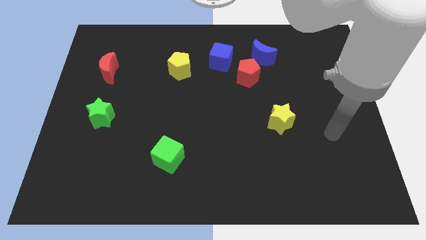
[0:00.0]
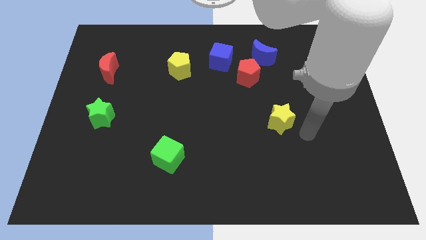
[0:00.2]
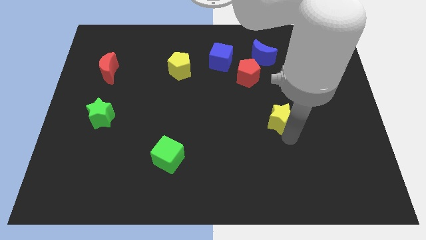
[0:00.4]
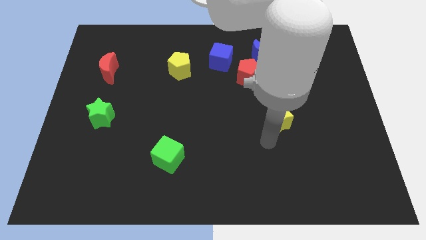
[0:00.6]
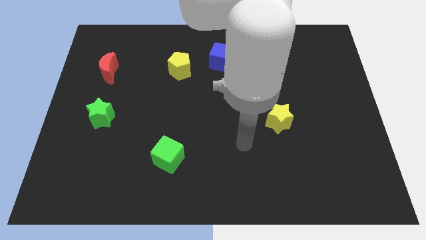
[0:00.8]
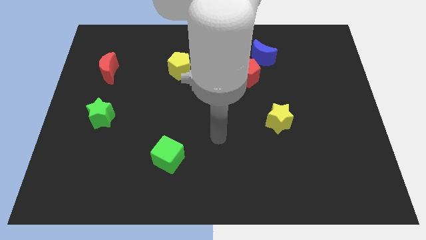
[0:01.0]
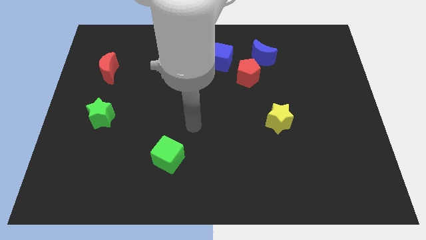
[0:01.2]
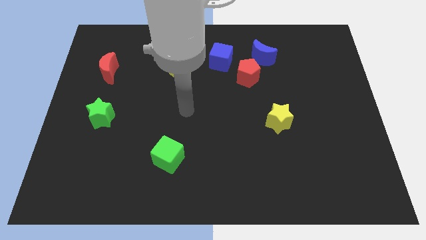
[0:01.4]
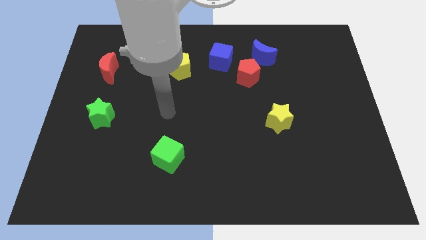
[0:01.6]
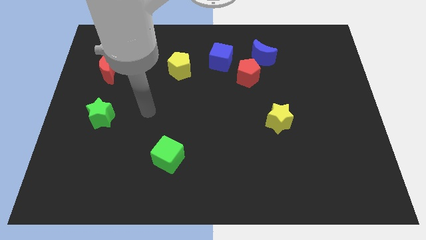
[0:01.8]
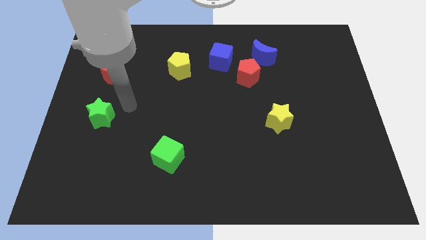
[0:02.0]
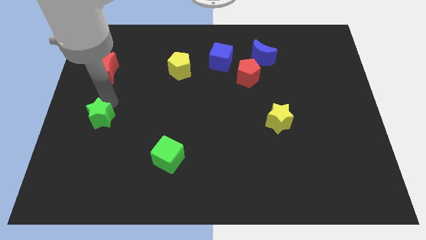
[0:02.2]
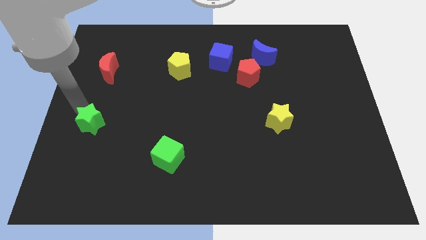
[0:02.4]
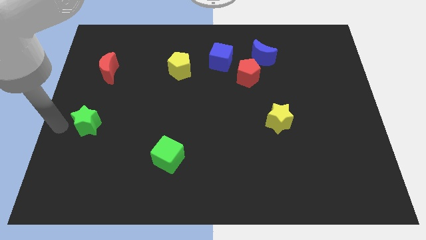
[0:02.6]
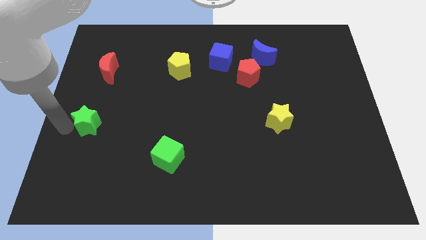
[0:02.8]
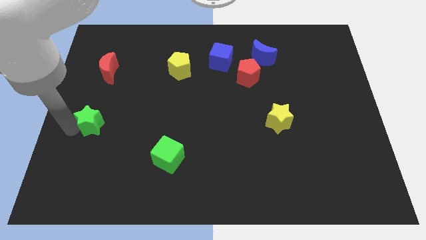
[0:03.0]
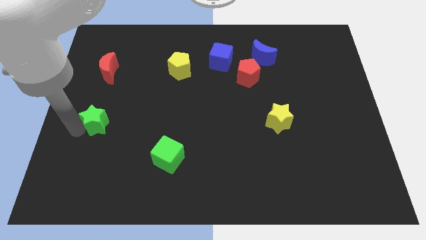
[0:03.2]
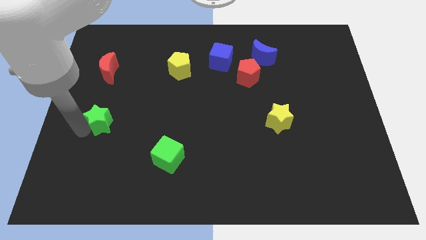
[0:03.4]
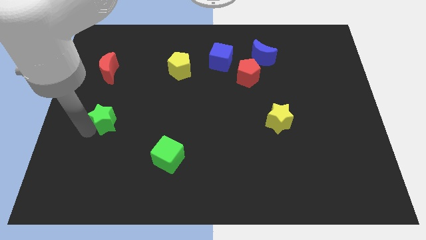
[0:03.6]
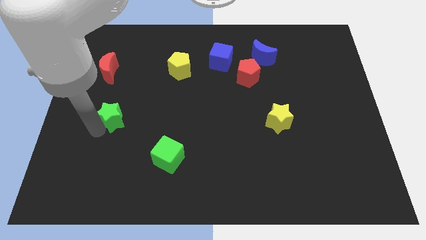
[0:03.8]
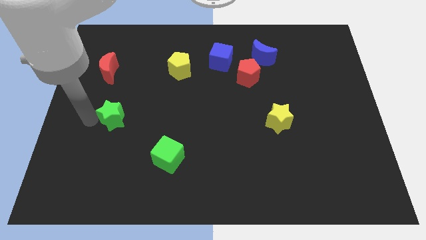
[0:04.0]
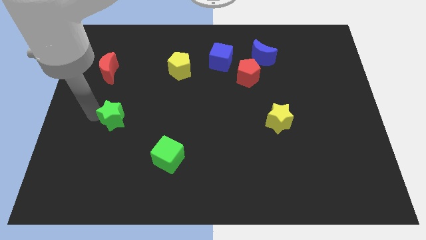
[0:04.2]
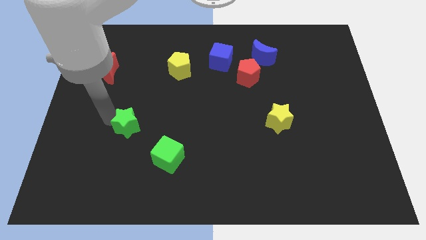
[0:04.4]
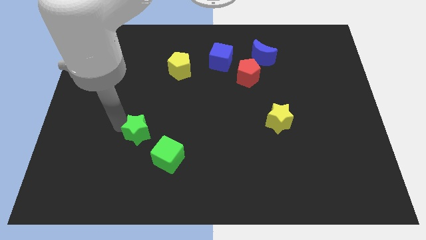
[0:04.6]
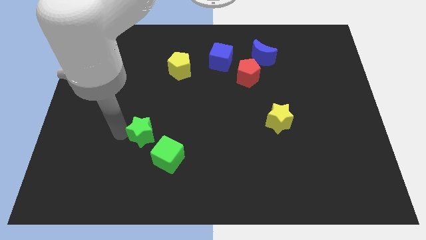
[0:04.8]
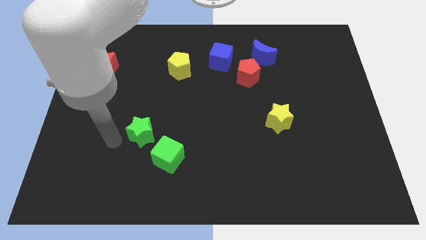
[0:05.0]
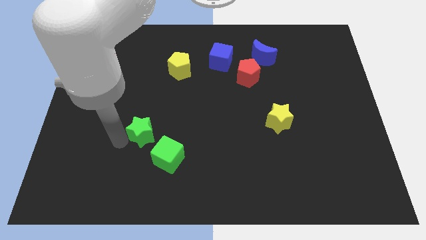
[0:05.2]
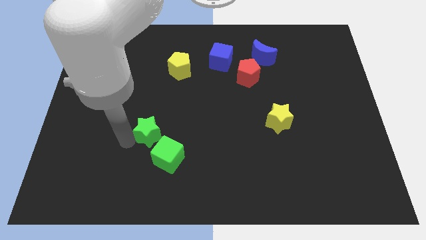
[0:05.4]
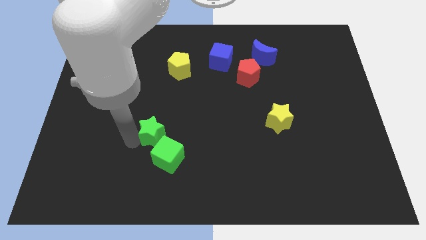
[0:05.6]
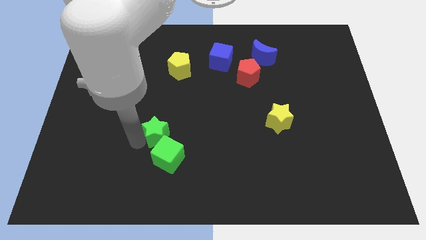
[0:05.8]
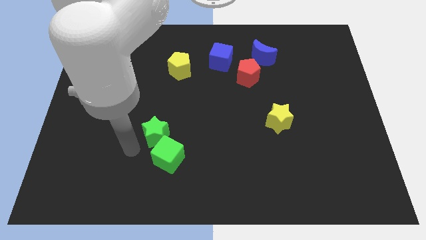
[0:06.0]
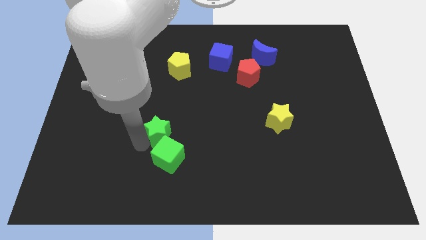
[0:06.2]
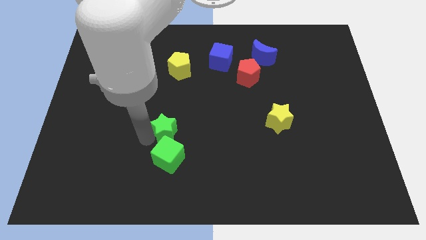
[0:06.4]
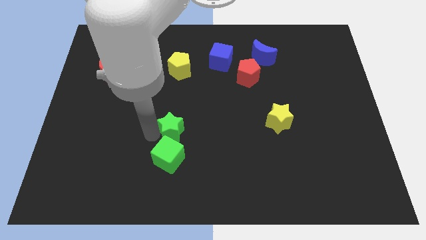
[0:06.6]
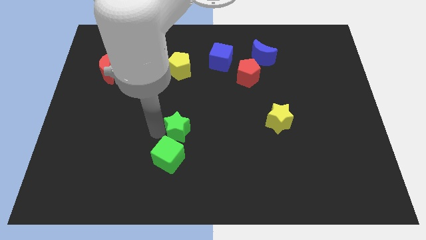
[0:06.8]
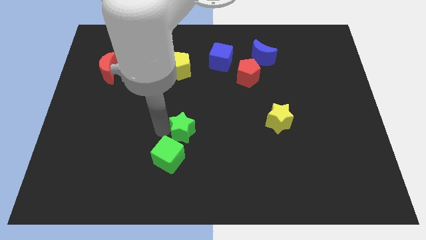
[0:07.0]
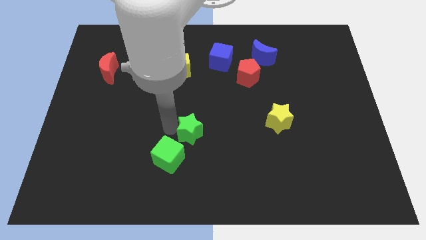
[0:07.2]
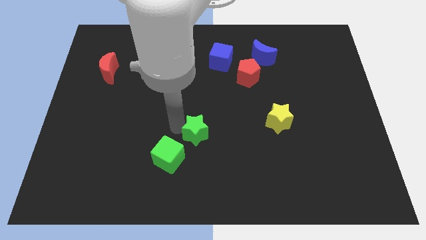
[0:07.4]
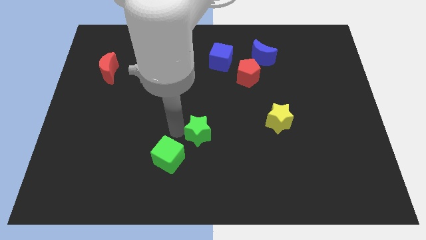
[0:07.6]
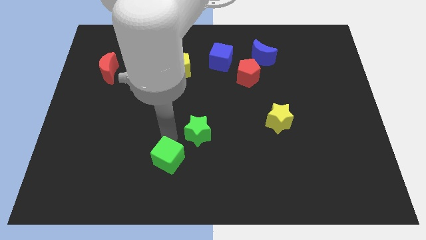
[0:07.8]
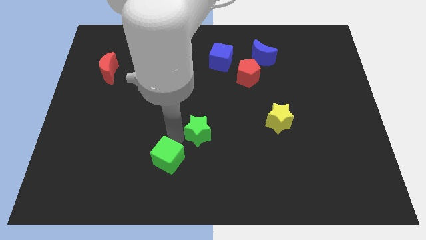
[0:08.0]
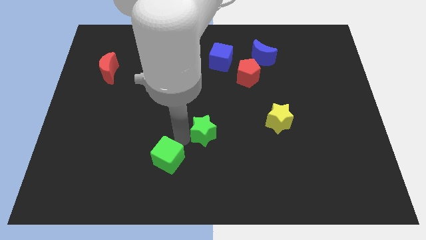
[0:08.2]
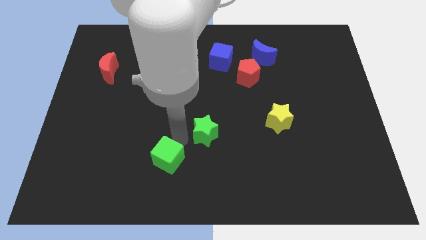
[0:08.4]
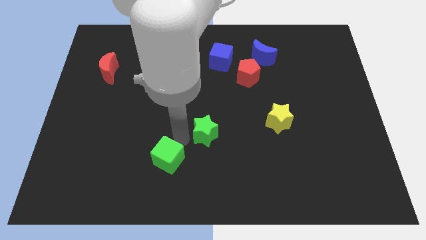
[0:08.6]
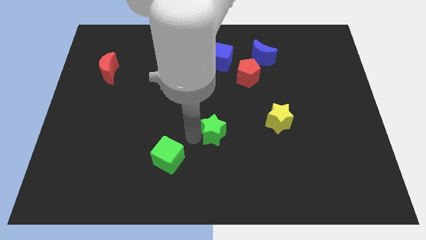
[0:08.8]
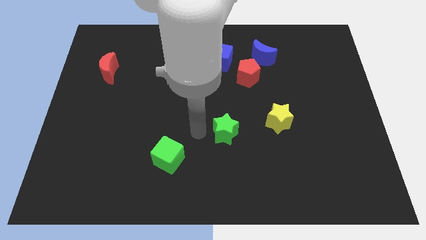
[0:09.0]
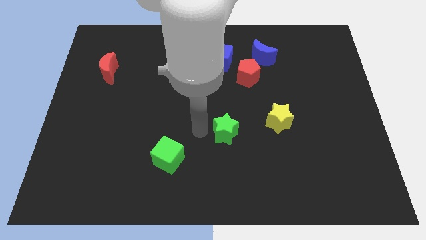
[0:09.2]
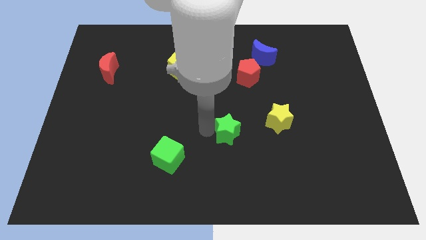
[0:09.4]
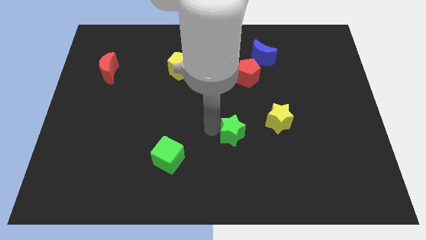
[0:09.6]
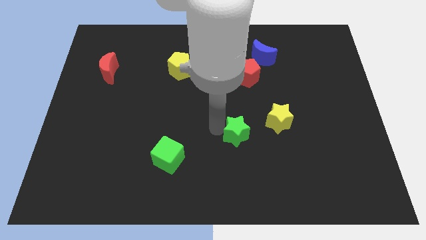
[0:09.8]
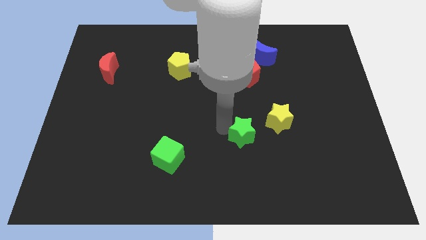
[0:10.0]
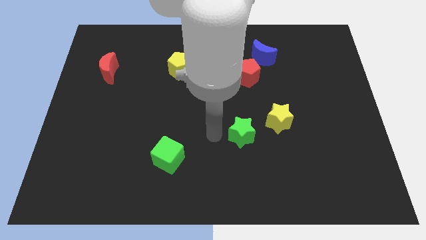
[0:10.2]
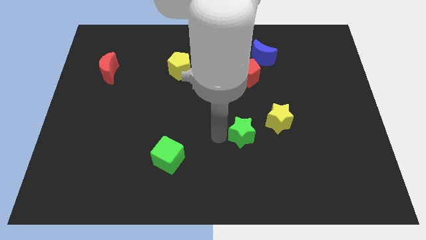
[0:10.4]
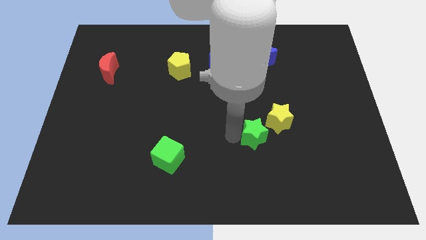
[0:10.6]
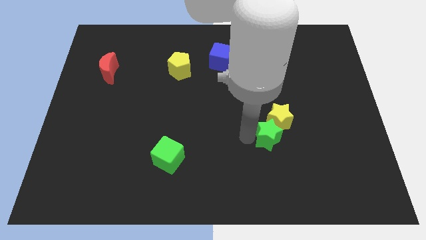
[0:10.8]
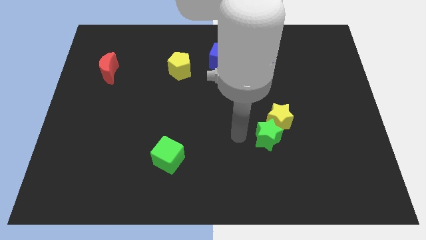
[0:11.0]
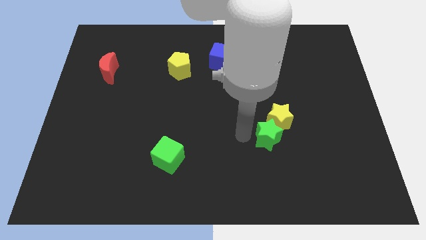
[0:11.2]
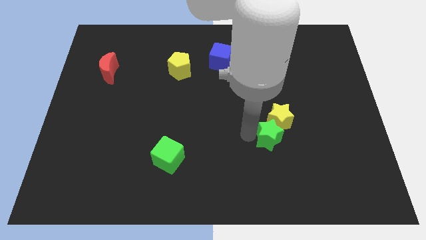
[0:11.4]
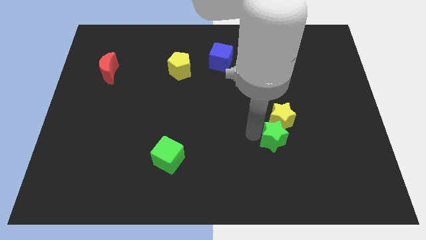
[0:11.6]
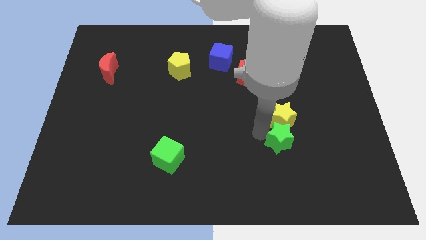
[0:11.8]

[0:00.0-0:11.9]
slide the green star diagonally down and to the right of the yellow star

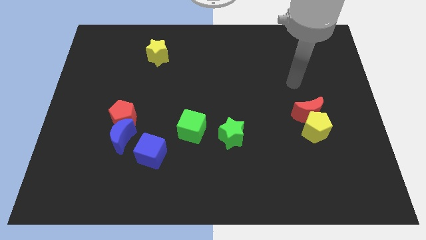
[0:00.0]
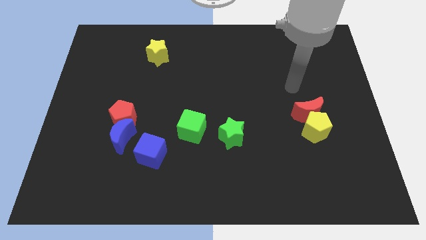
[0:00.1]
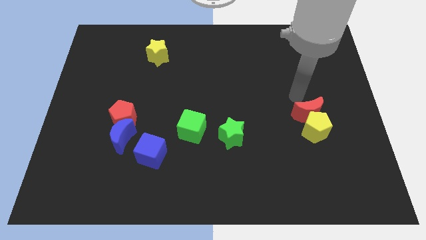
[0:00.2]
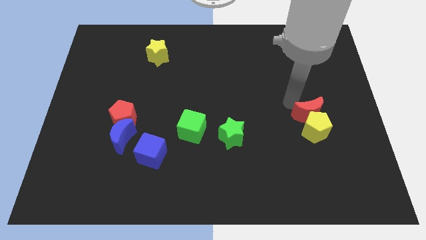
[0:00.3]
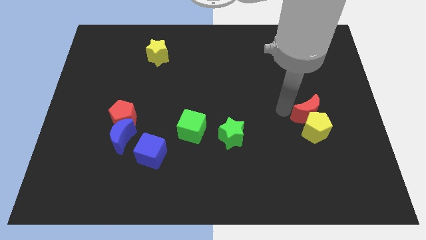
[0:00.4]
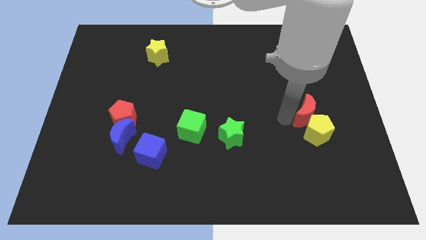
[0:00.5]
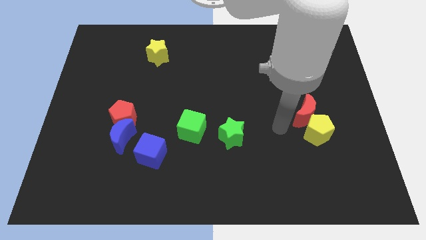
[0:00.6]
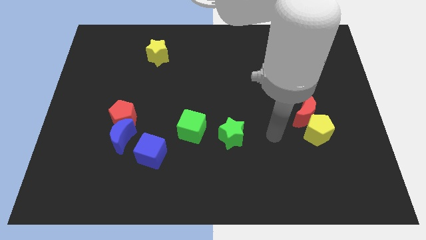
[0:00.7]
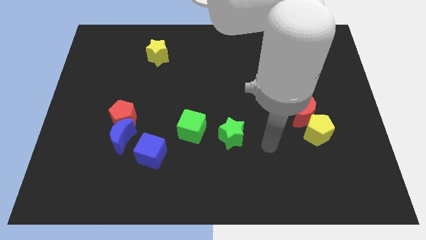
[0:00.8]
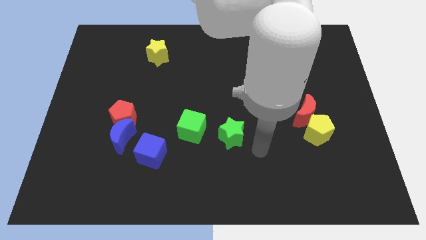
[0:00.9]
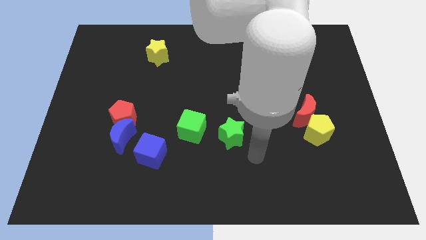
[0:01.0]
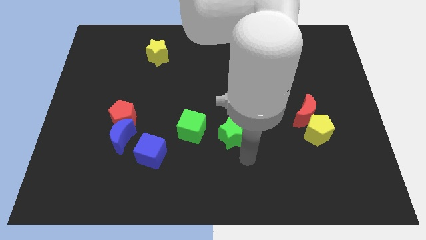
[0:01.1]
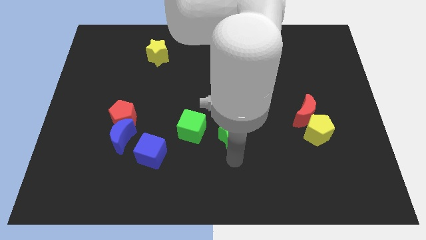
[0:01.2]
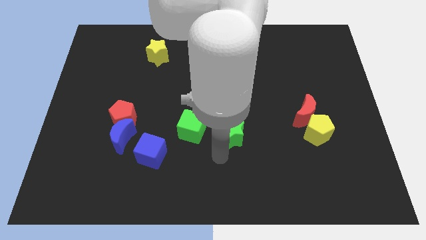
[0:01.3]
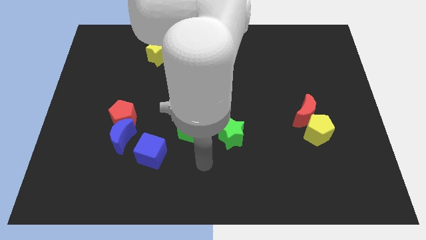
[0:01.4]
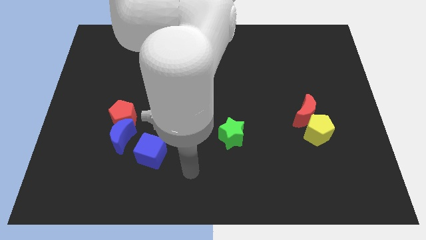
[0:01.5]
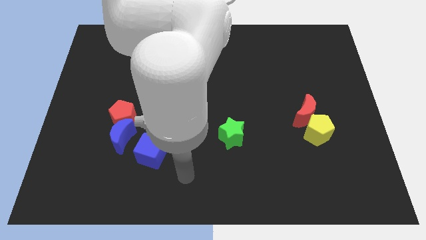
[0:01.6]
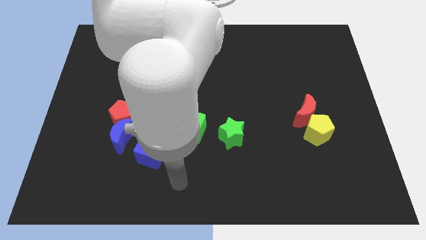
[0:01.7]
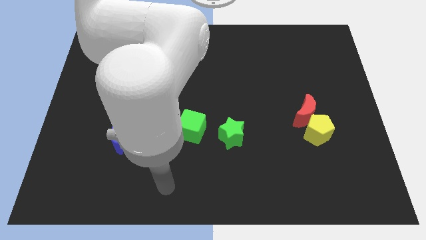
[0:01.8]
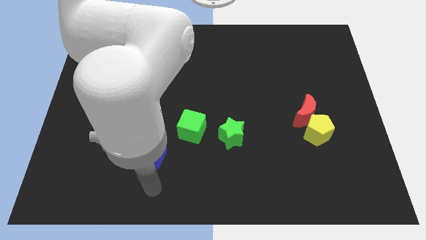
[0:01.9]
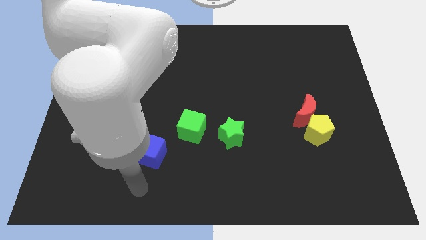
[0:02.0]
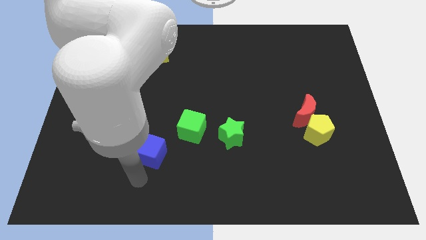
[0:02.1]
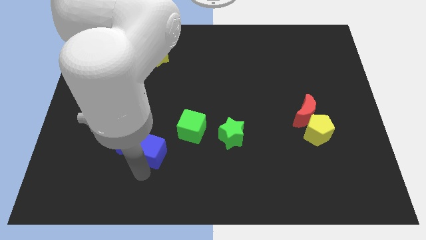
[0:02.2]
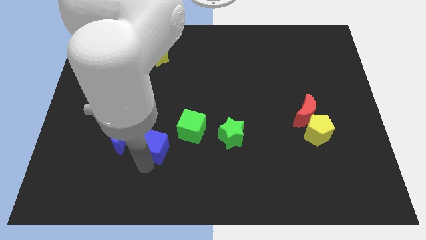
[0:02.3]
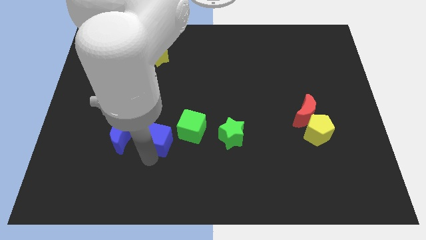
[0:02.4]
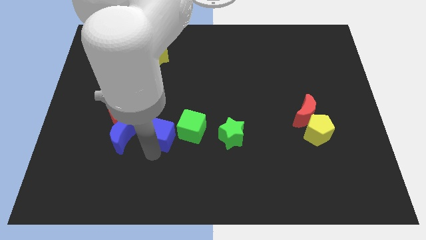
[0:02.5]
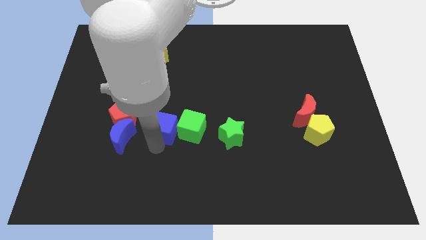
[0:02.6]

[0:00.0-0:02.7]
push the blue cube diagonally up and to the left of the green cube
